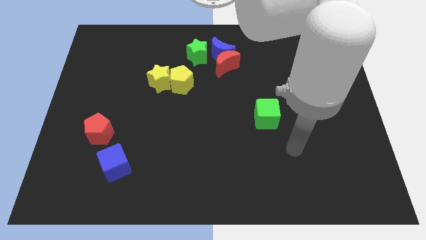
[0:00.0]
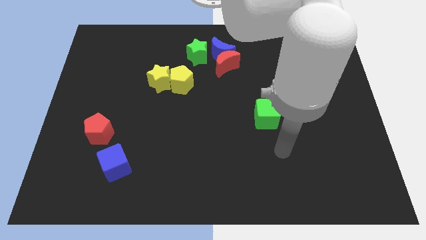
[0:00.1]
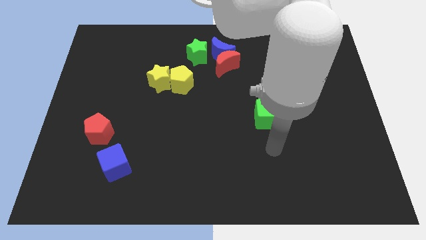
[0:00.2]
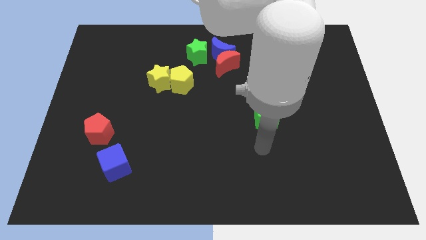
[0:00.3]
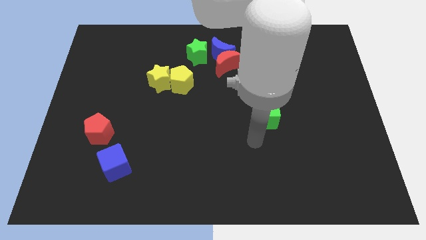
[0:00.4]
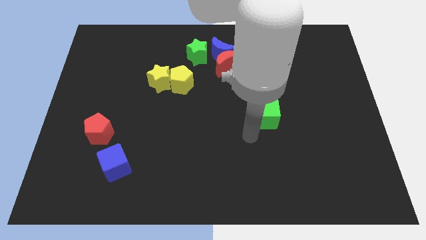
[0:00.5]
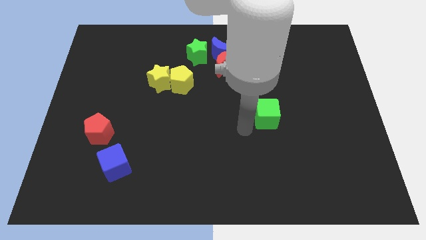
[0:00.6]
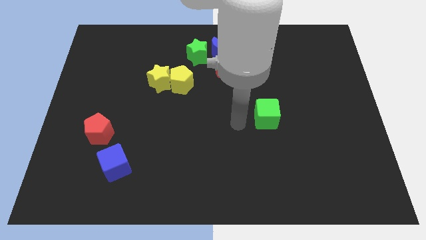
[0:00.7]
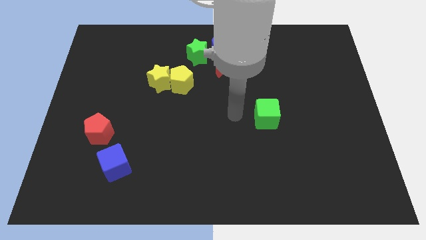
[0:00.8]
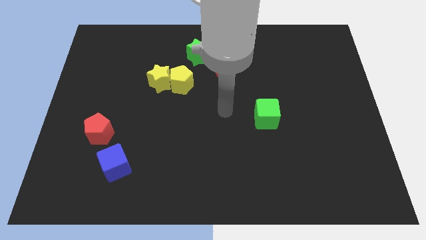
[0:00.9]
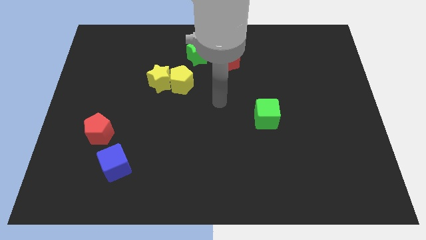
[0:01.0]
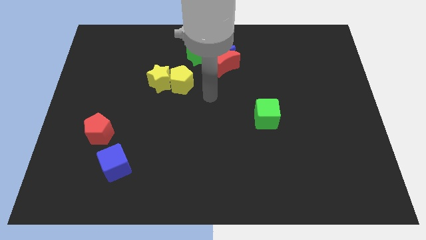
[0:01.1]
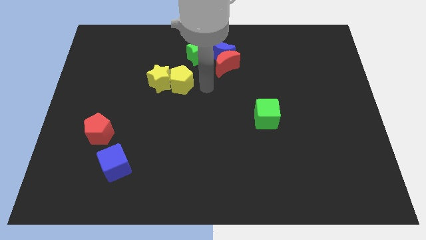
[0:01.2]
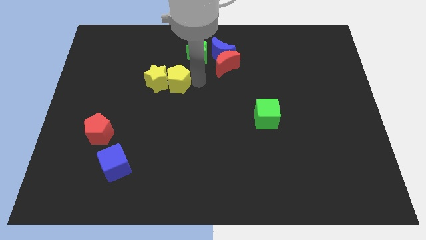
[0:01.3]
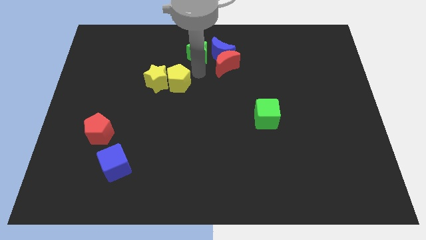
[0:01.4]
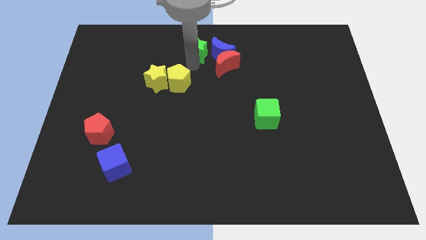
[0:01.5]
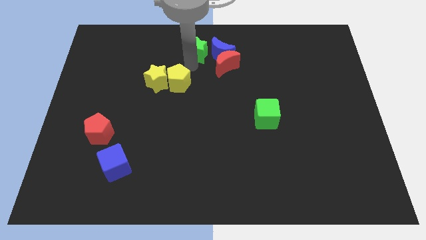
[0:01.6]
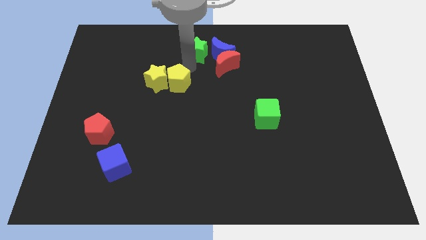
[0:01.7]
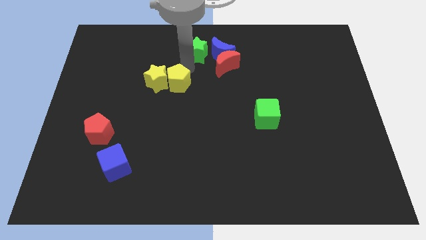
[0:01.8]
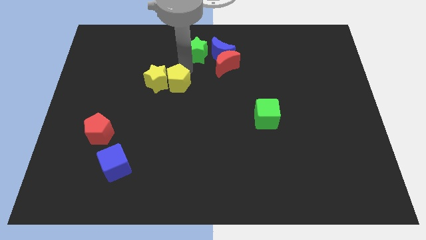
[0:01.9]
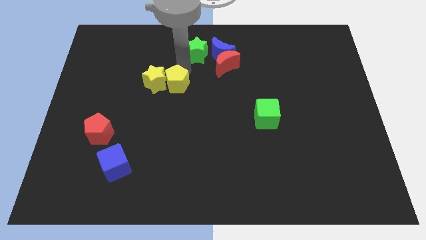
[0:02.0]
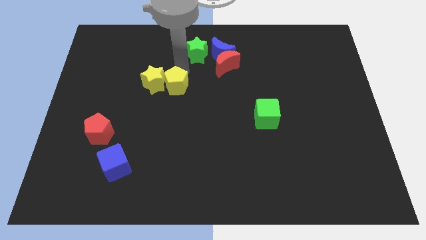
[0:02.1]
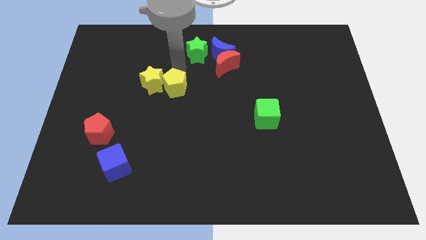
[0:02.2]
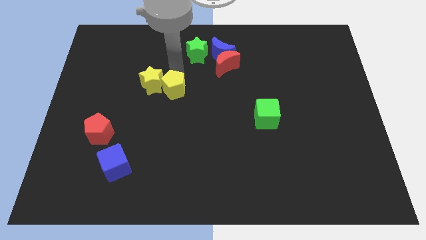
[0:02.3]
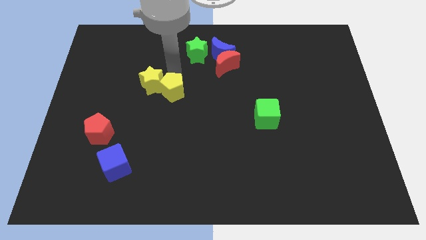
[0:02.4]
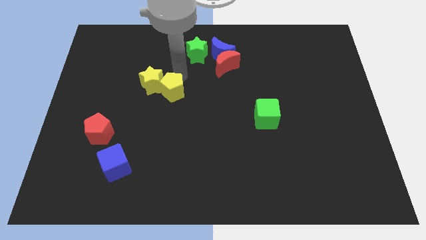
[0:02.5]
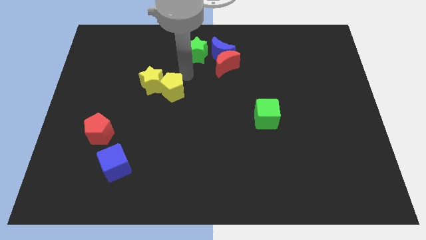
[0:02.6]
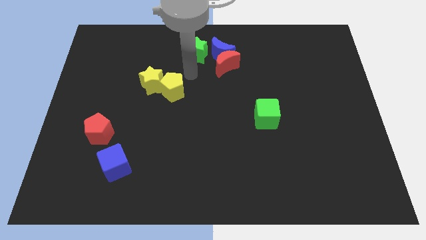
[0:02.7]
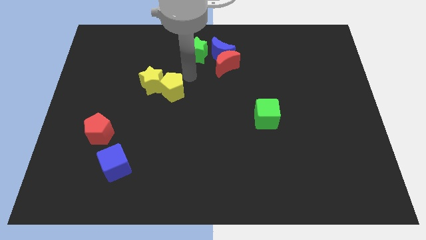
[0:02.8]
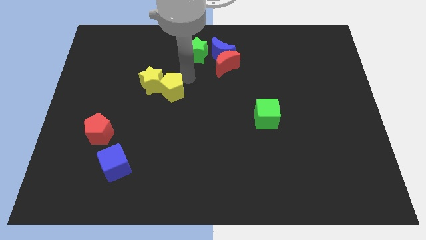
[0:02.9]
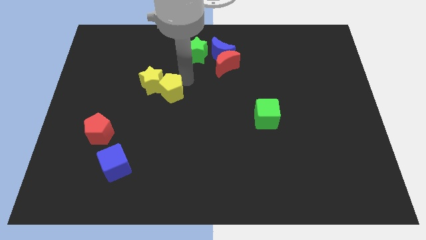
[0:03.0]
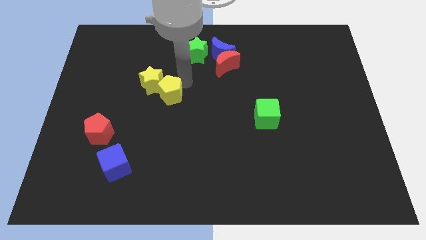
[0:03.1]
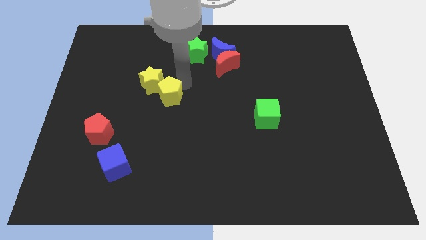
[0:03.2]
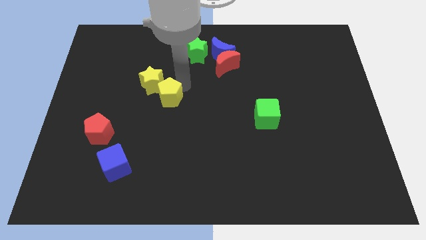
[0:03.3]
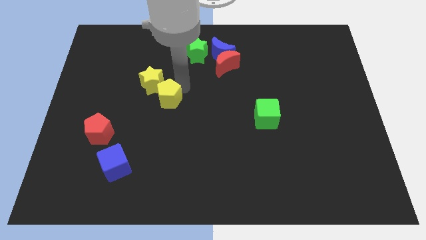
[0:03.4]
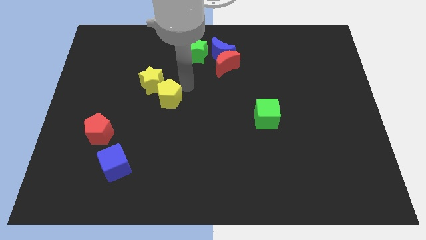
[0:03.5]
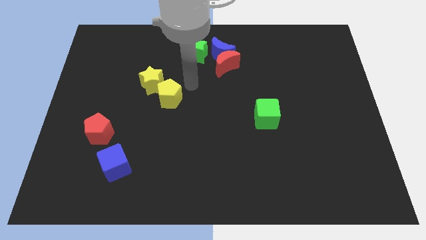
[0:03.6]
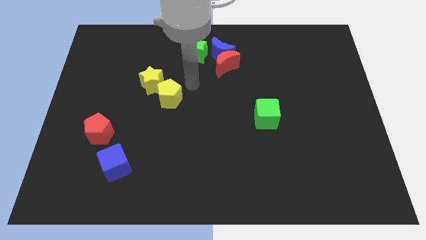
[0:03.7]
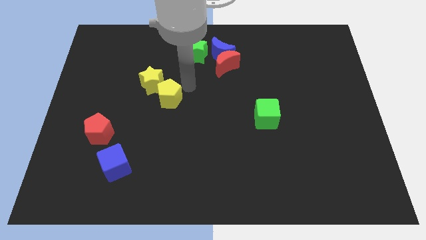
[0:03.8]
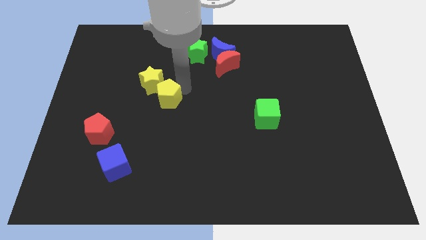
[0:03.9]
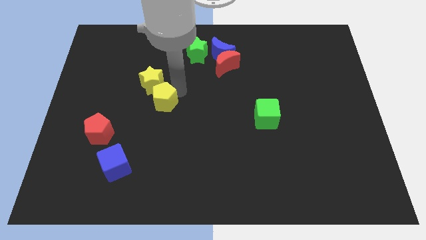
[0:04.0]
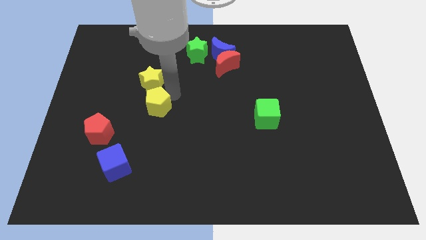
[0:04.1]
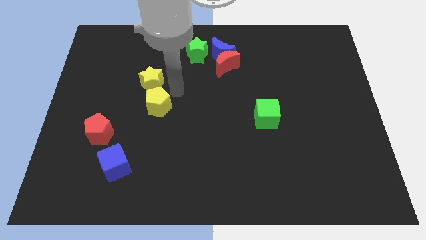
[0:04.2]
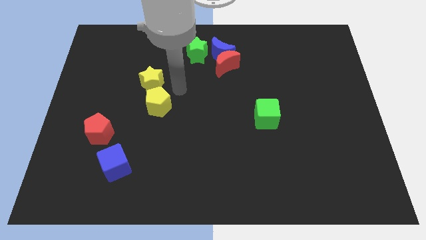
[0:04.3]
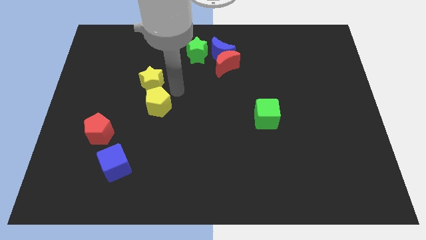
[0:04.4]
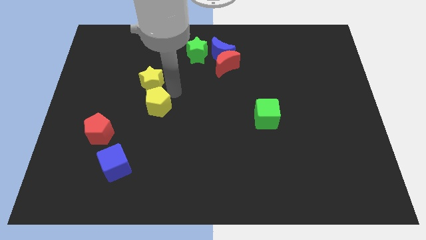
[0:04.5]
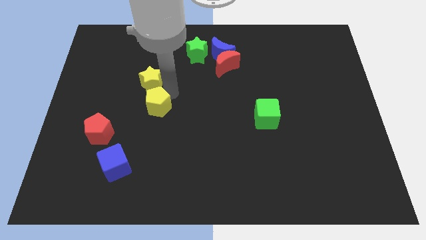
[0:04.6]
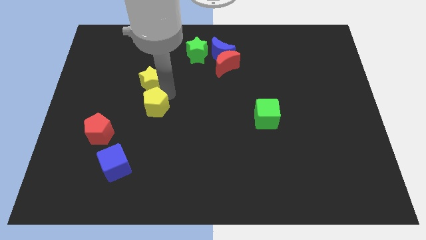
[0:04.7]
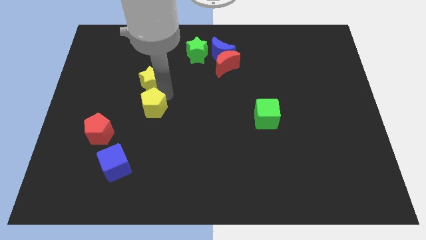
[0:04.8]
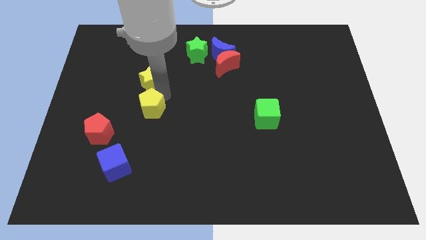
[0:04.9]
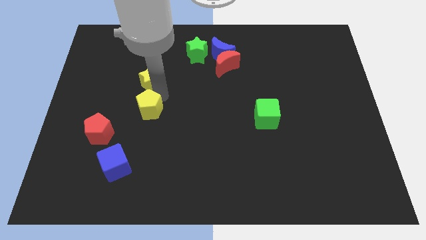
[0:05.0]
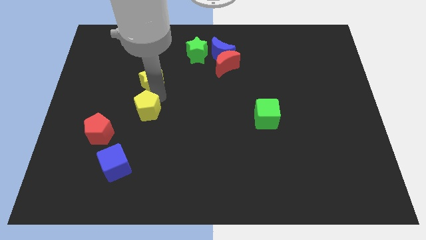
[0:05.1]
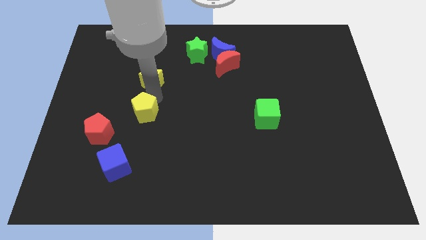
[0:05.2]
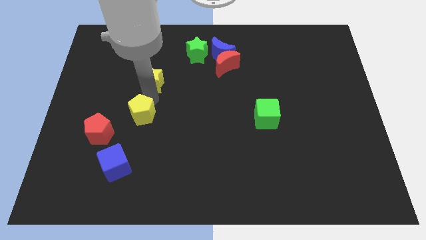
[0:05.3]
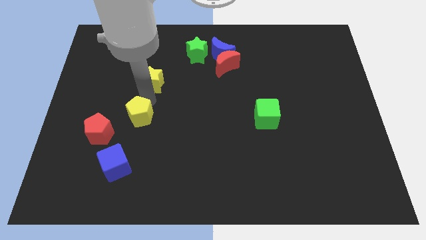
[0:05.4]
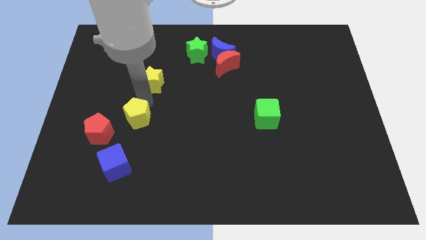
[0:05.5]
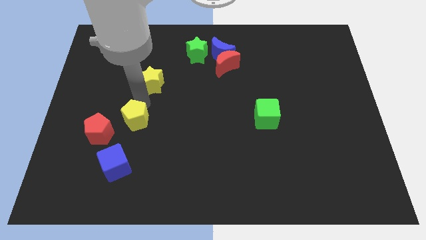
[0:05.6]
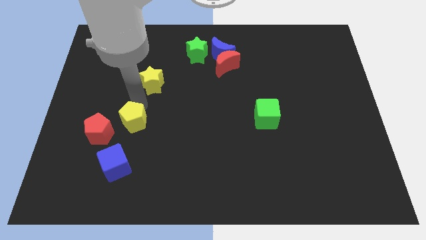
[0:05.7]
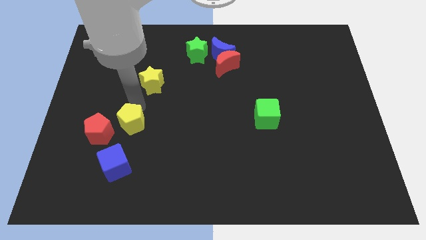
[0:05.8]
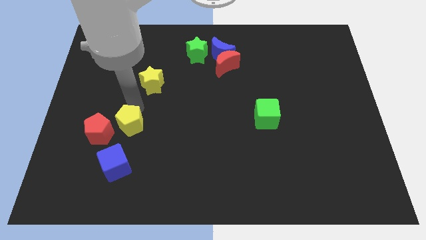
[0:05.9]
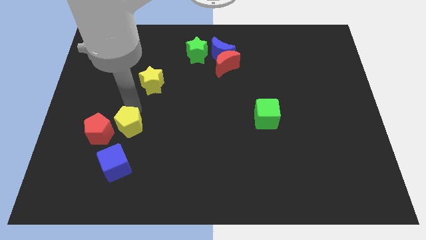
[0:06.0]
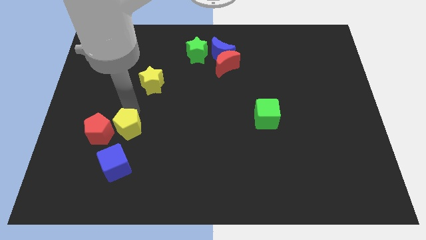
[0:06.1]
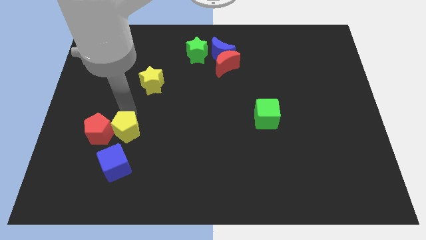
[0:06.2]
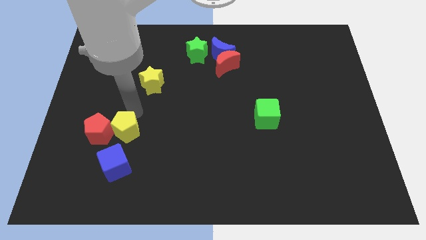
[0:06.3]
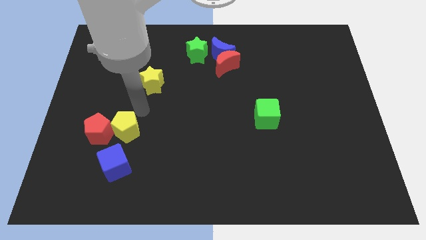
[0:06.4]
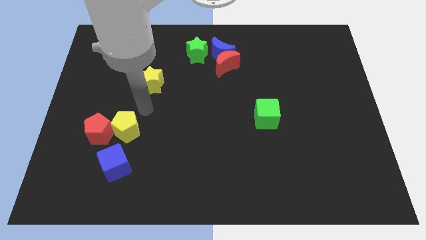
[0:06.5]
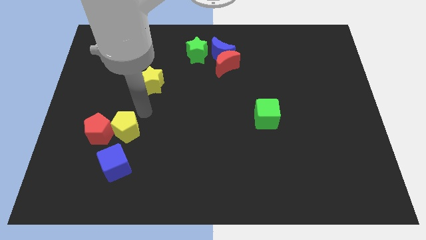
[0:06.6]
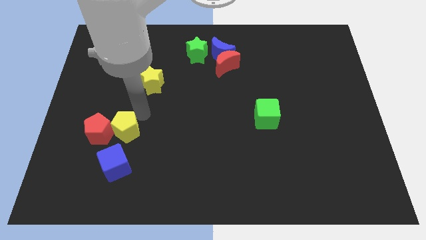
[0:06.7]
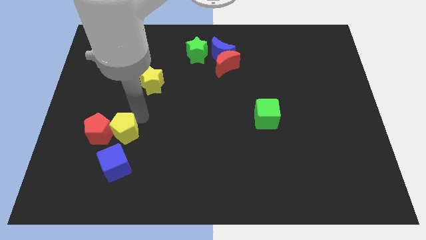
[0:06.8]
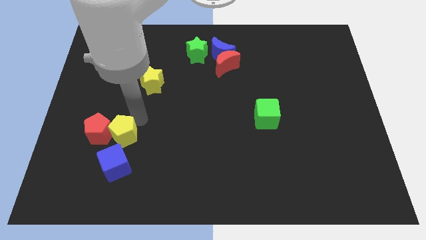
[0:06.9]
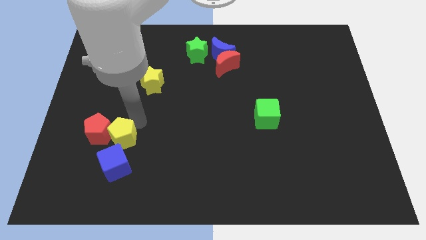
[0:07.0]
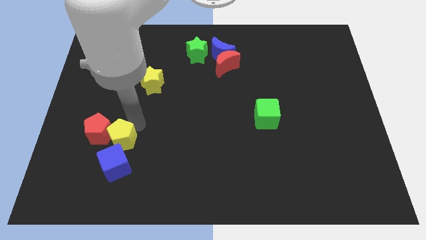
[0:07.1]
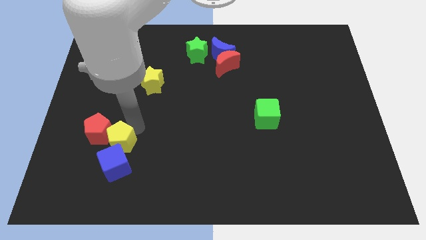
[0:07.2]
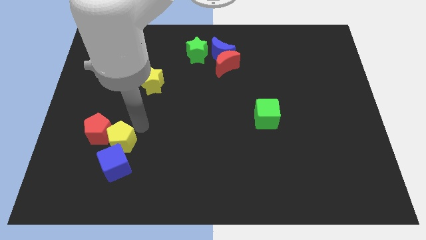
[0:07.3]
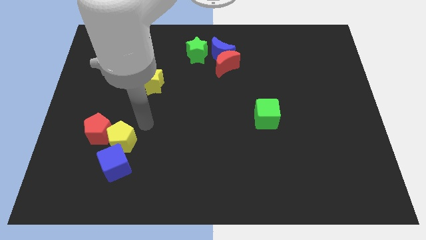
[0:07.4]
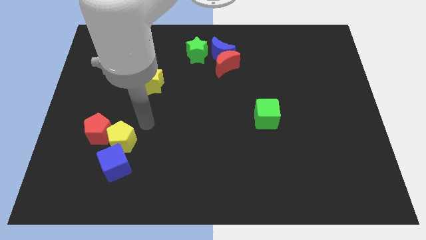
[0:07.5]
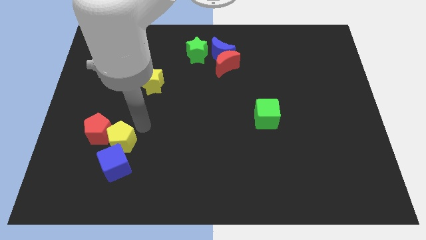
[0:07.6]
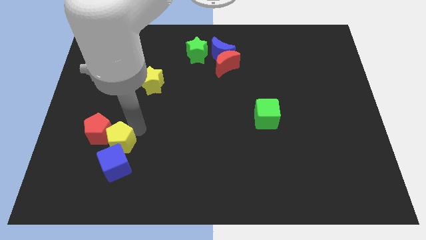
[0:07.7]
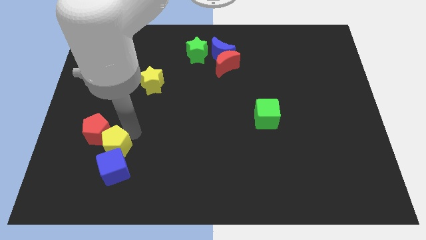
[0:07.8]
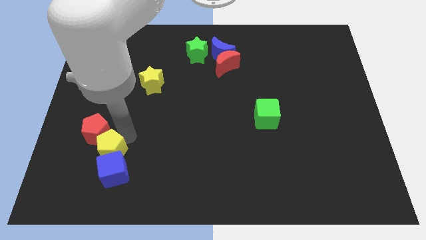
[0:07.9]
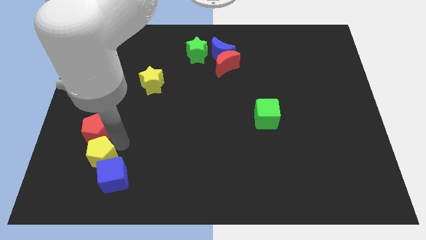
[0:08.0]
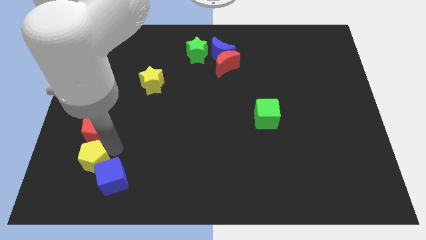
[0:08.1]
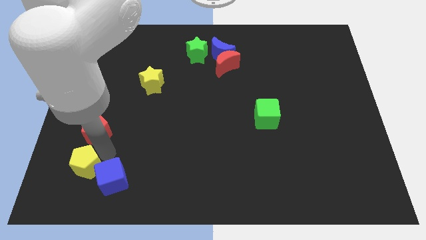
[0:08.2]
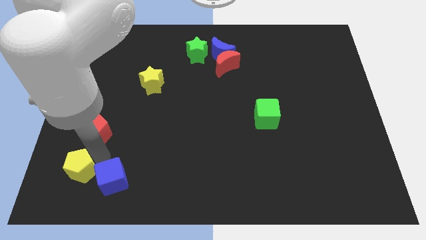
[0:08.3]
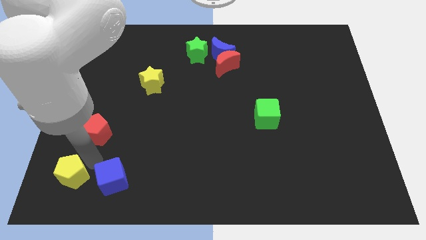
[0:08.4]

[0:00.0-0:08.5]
put the yellow pentagon to the bottom left
